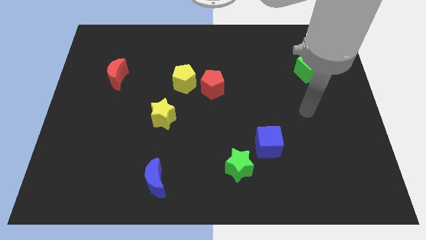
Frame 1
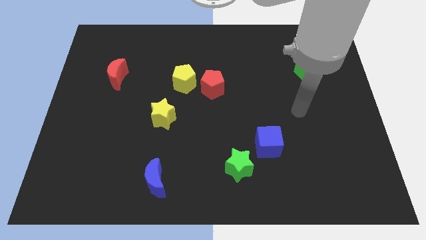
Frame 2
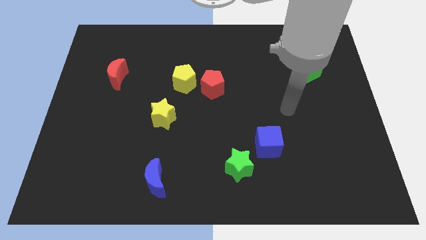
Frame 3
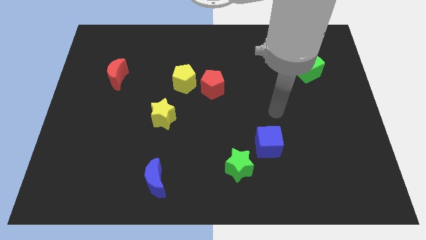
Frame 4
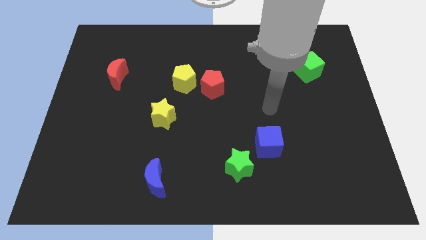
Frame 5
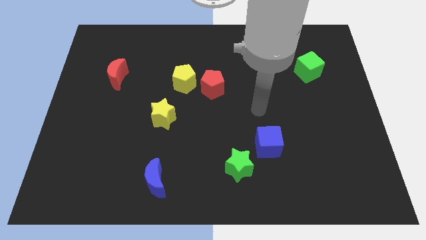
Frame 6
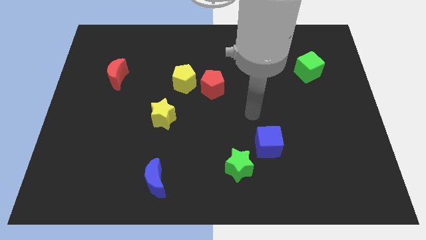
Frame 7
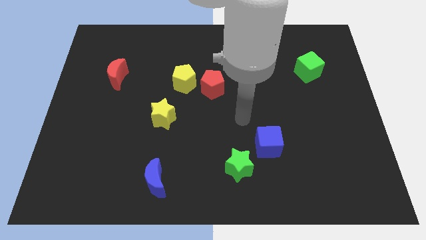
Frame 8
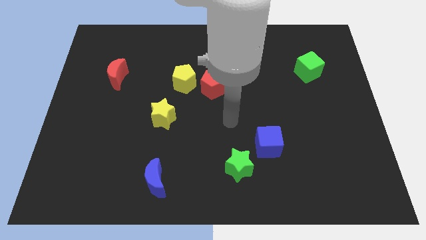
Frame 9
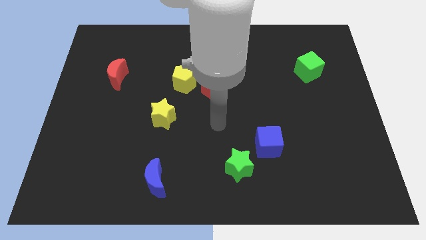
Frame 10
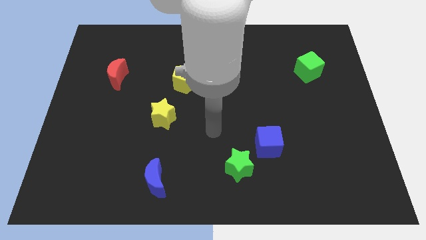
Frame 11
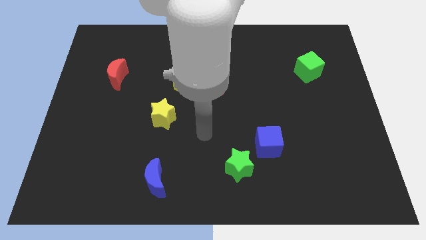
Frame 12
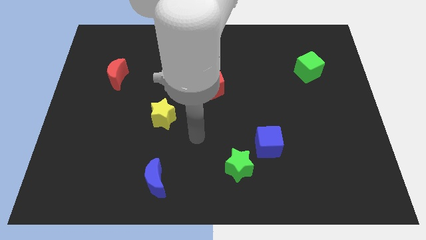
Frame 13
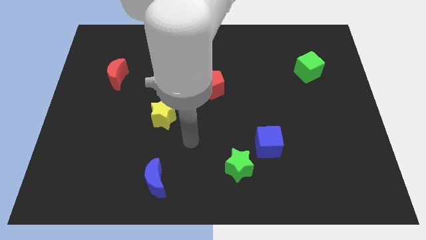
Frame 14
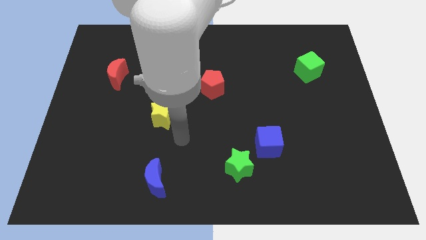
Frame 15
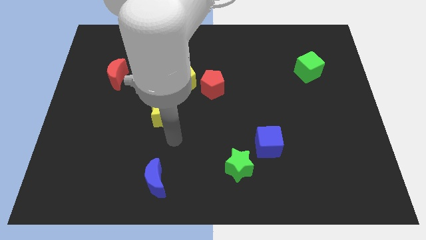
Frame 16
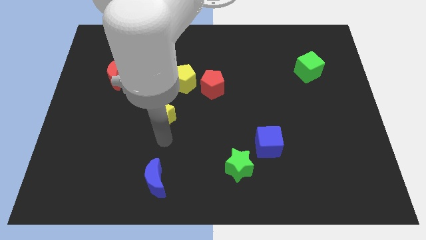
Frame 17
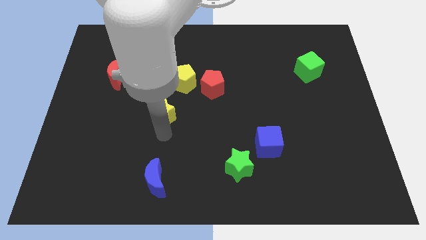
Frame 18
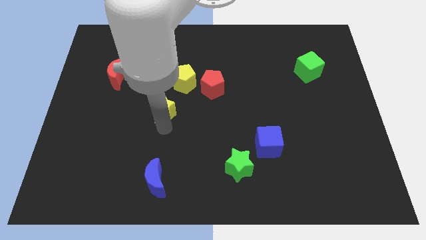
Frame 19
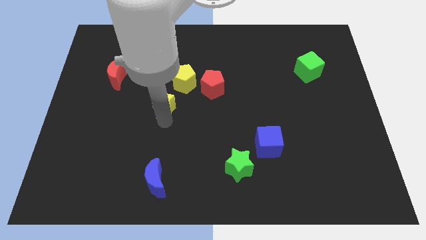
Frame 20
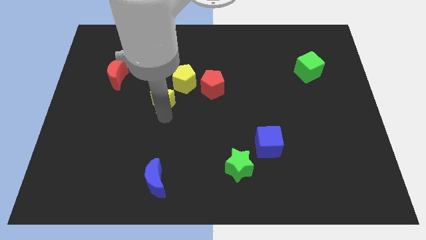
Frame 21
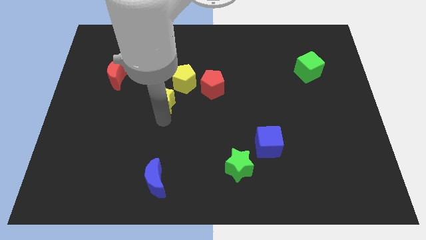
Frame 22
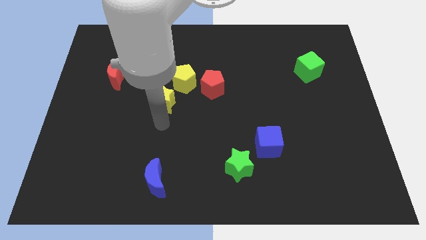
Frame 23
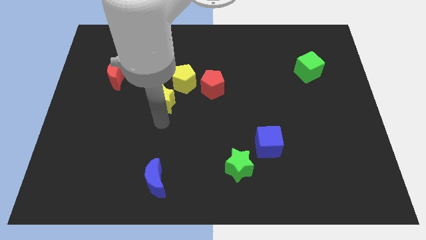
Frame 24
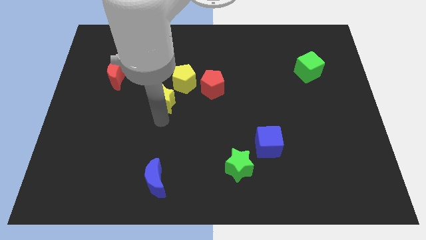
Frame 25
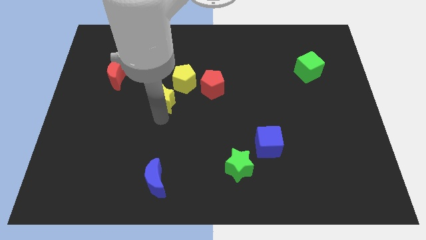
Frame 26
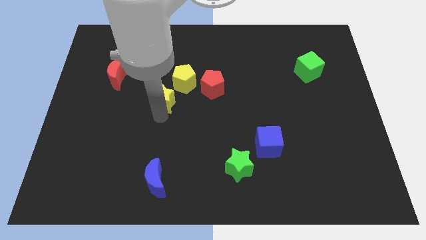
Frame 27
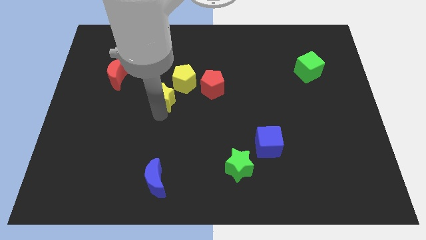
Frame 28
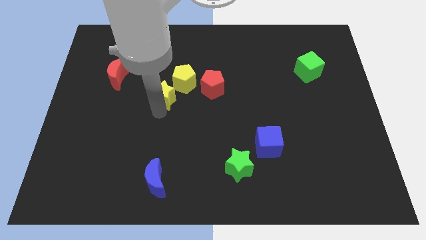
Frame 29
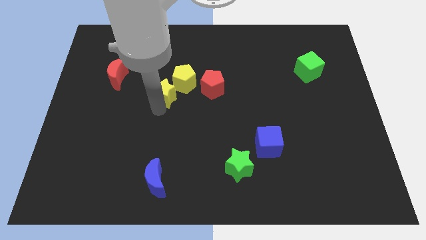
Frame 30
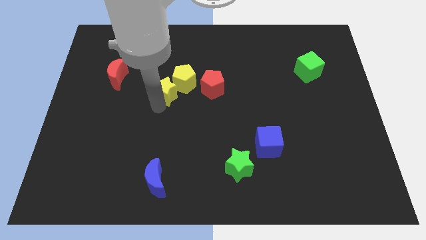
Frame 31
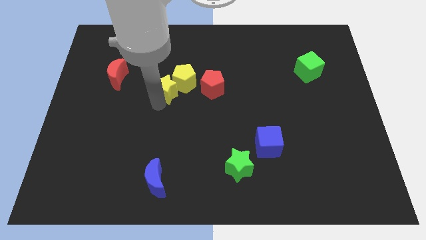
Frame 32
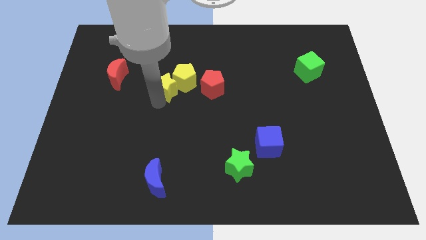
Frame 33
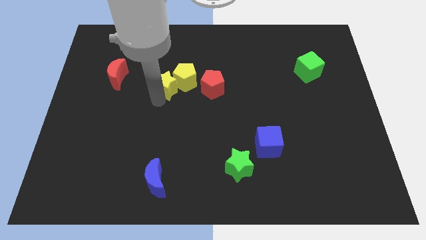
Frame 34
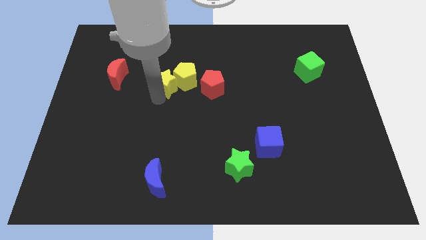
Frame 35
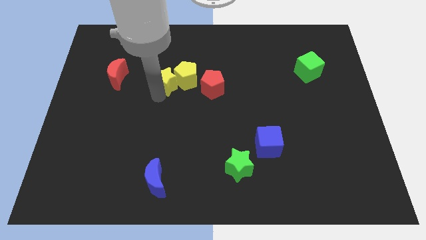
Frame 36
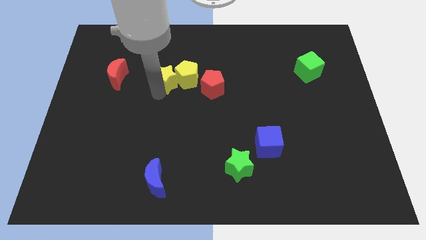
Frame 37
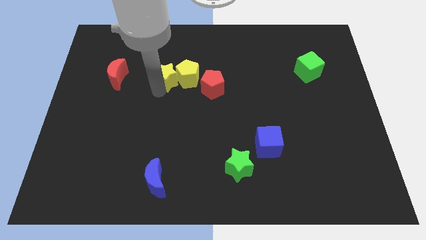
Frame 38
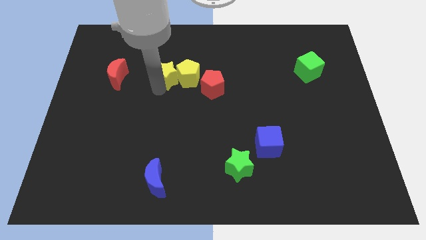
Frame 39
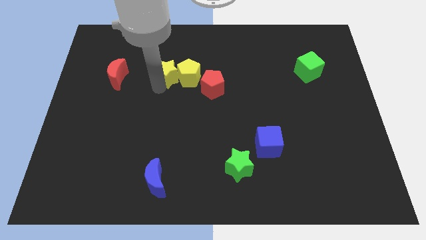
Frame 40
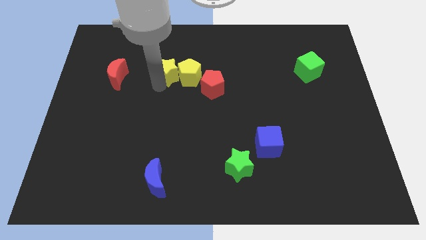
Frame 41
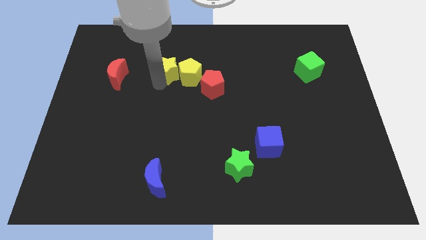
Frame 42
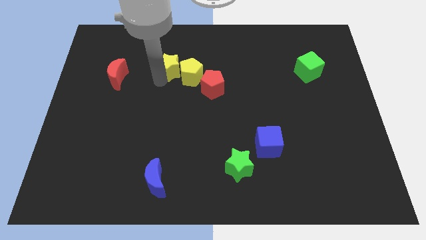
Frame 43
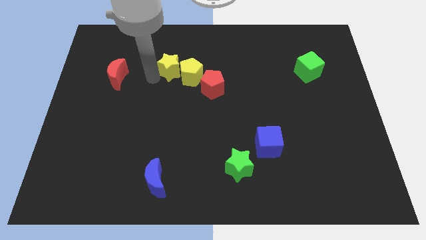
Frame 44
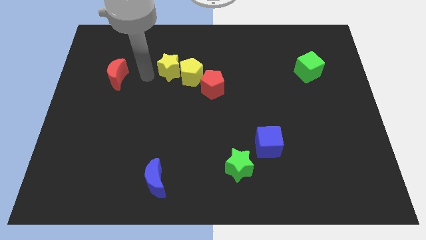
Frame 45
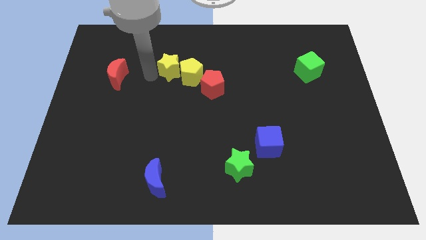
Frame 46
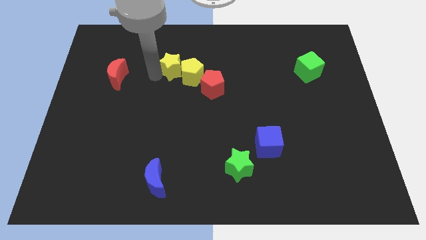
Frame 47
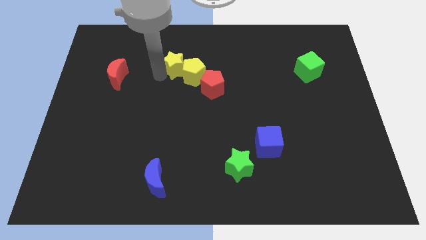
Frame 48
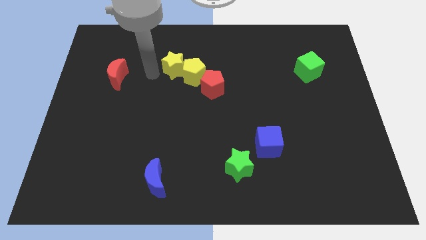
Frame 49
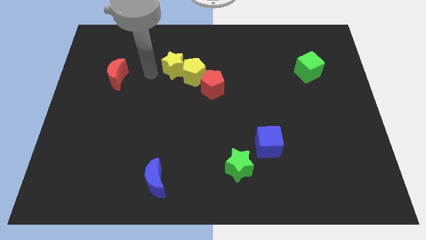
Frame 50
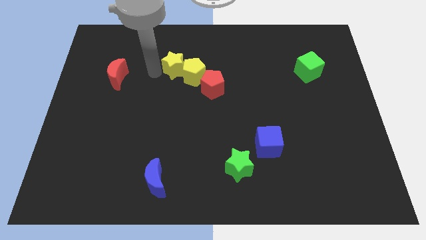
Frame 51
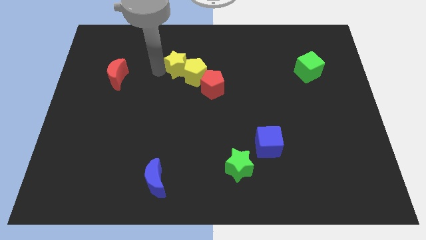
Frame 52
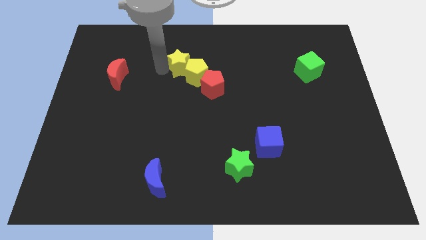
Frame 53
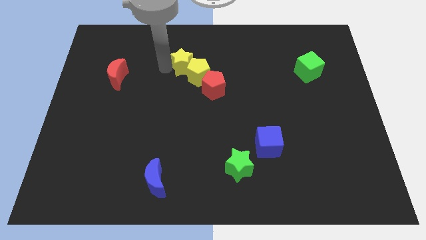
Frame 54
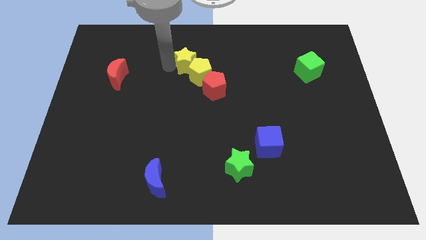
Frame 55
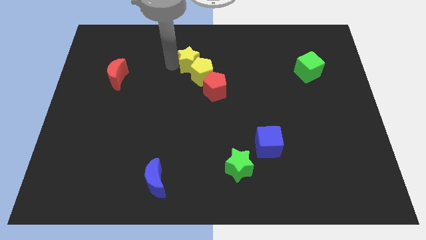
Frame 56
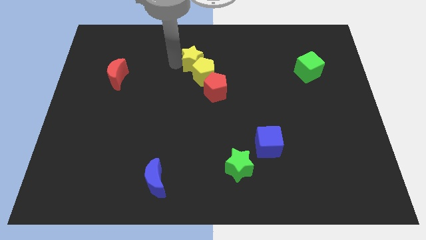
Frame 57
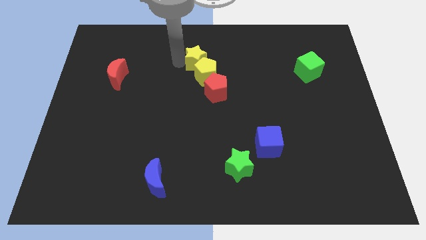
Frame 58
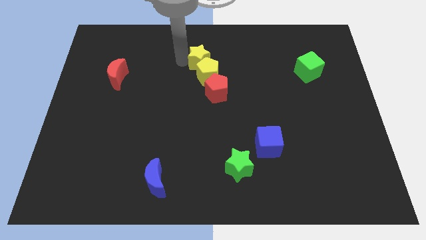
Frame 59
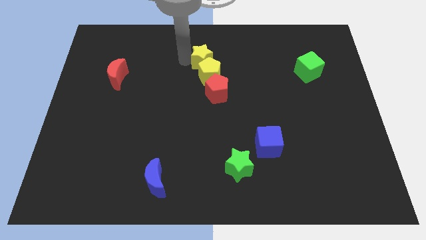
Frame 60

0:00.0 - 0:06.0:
push the yellow star to the top right of the yellow pentagon

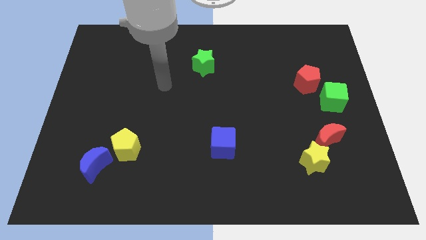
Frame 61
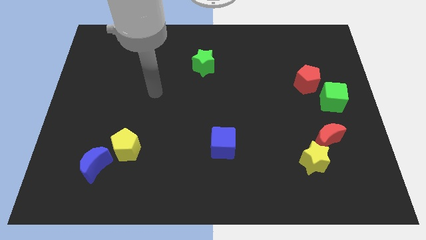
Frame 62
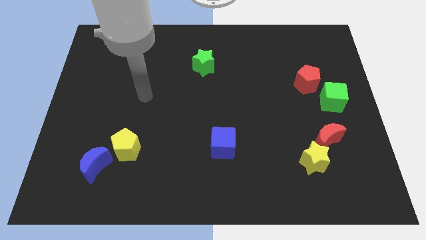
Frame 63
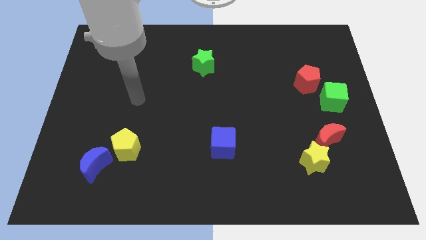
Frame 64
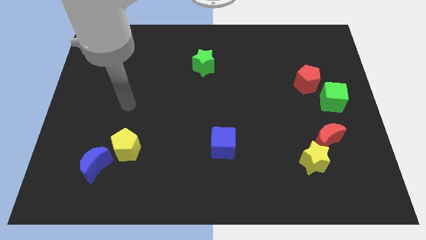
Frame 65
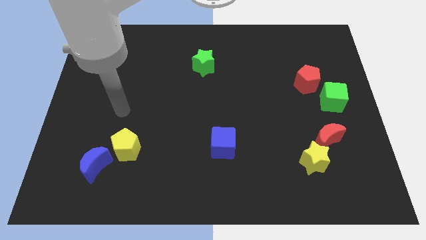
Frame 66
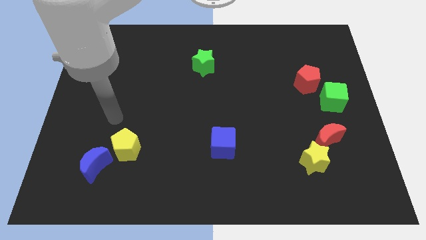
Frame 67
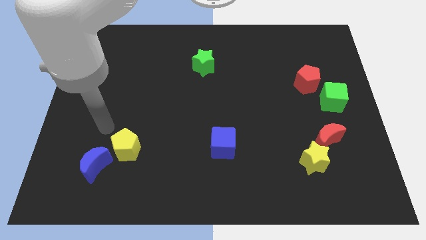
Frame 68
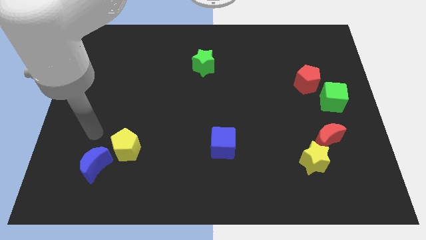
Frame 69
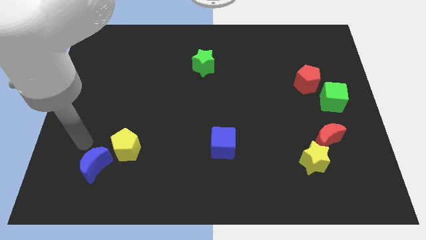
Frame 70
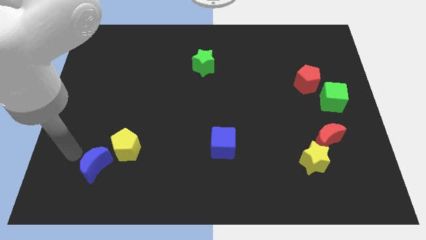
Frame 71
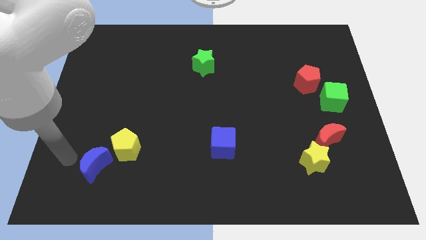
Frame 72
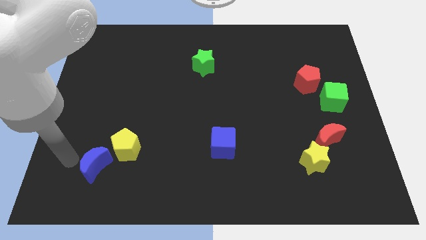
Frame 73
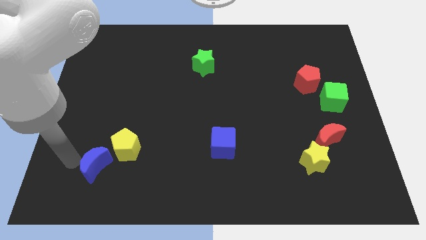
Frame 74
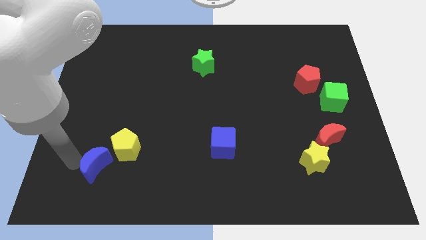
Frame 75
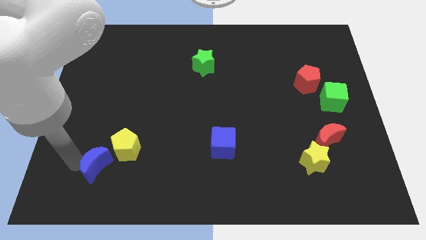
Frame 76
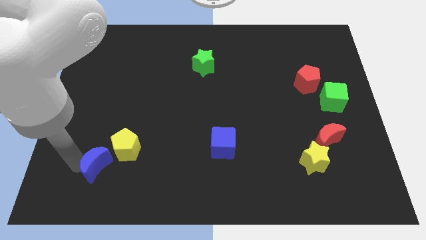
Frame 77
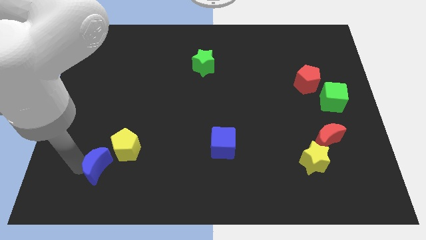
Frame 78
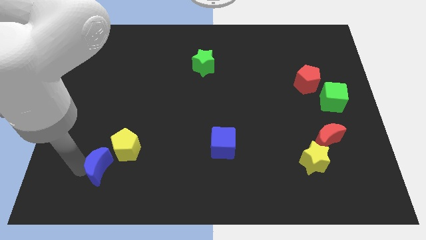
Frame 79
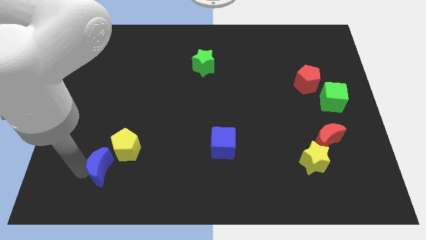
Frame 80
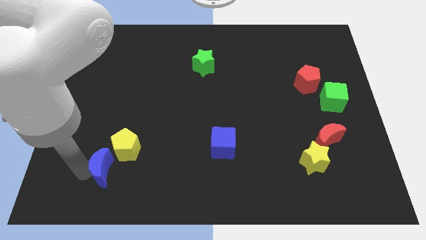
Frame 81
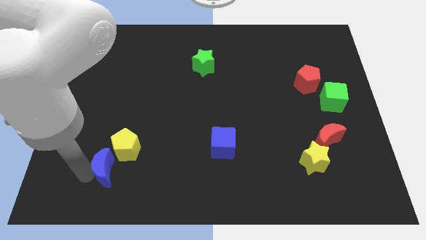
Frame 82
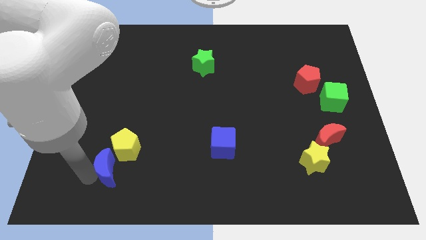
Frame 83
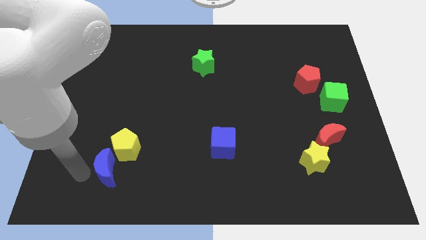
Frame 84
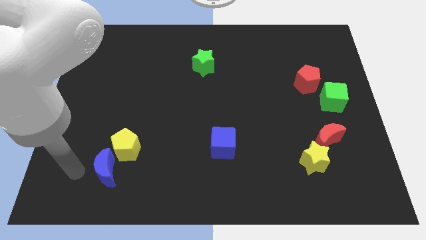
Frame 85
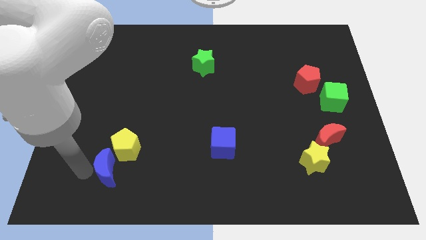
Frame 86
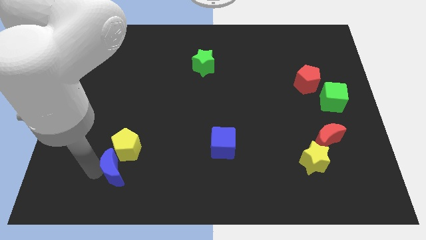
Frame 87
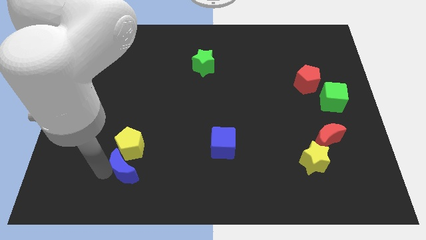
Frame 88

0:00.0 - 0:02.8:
put the blue moon diagonally down and to the right of the yellow pentagon
